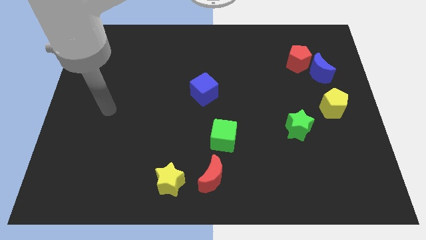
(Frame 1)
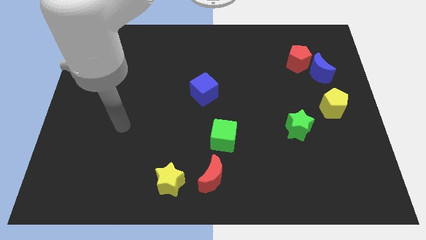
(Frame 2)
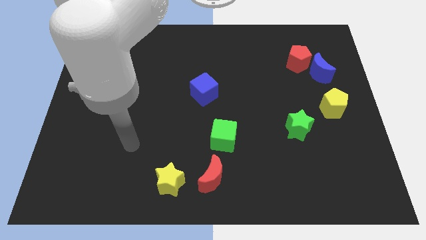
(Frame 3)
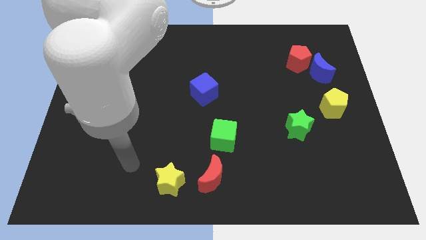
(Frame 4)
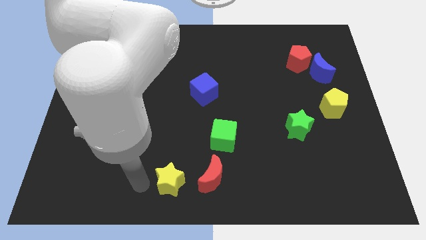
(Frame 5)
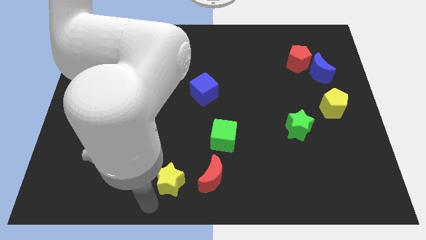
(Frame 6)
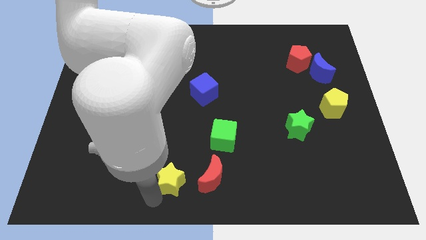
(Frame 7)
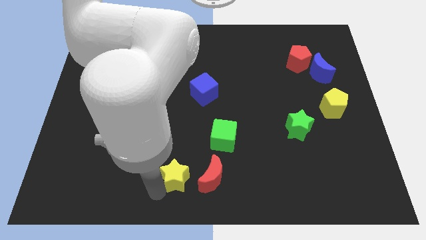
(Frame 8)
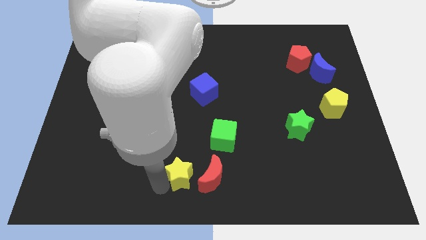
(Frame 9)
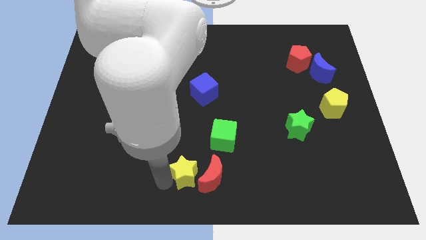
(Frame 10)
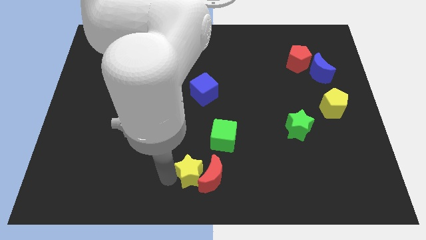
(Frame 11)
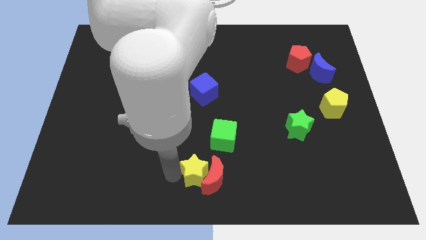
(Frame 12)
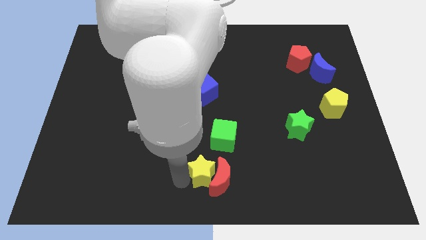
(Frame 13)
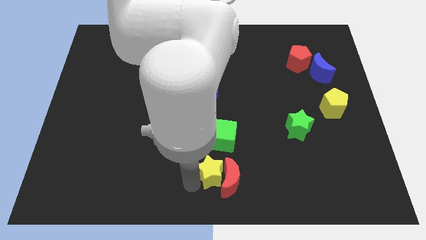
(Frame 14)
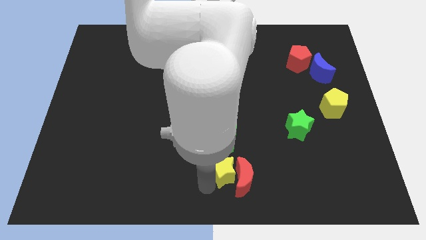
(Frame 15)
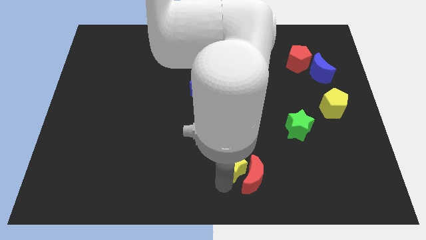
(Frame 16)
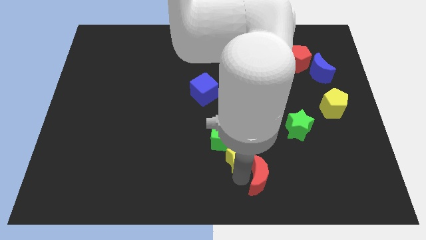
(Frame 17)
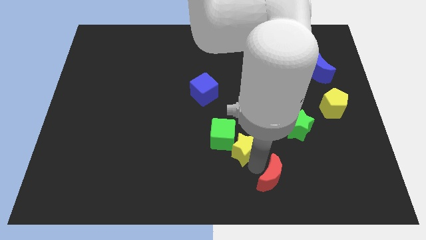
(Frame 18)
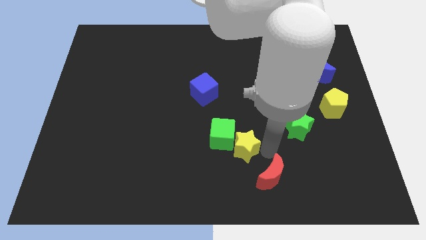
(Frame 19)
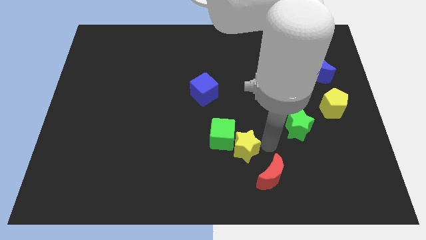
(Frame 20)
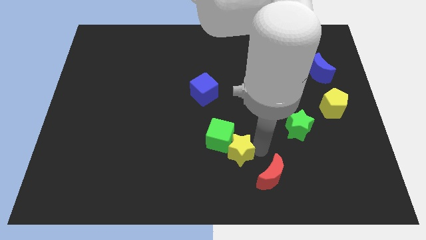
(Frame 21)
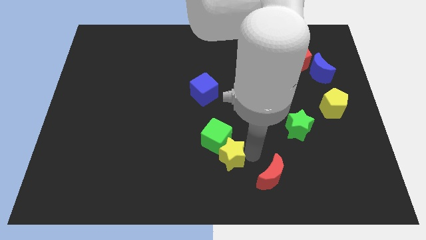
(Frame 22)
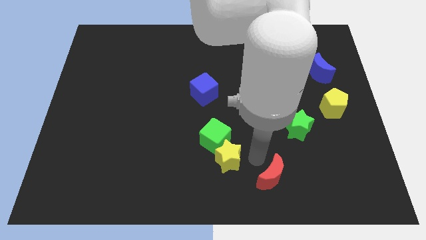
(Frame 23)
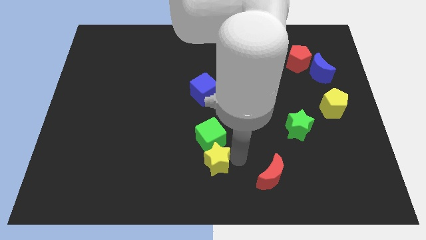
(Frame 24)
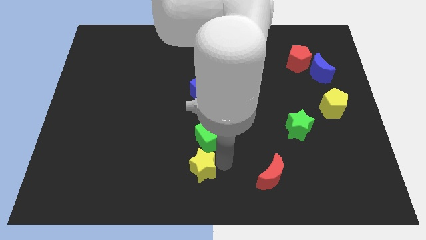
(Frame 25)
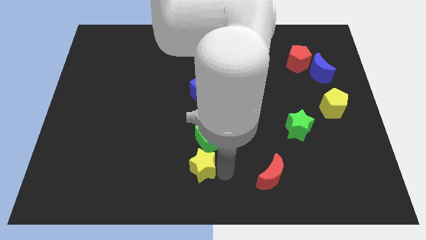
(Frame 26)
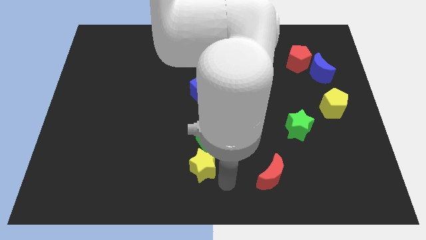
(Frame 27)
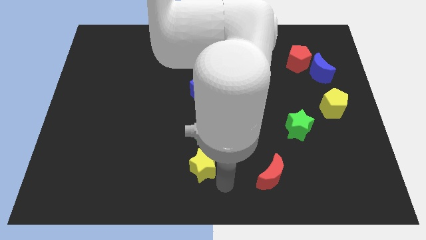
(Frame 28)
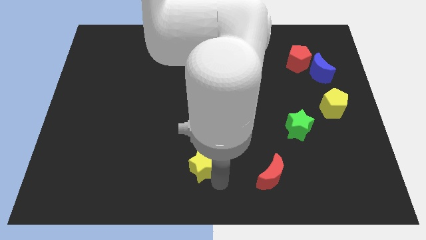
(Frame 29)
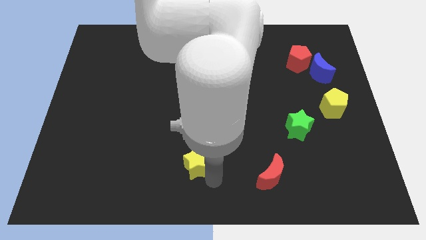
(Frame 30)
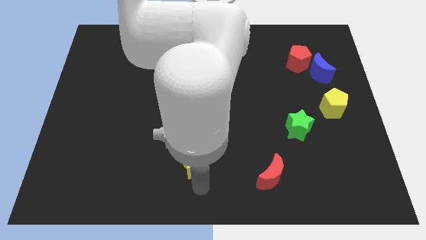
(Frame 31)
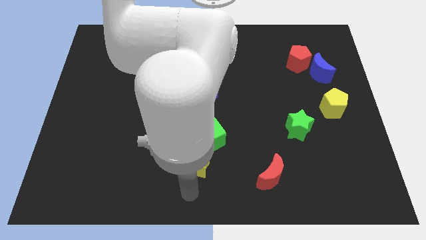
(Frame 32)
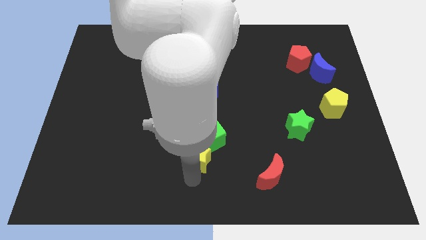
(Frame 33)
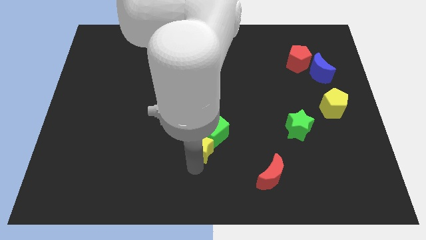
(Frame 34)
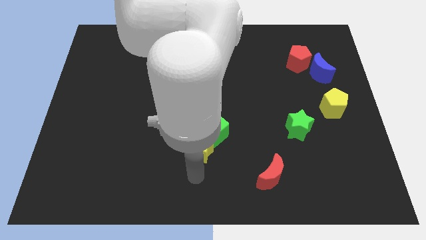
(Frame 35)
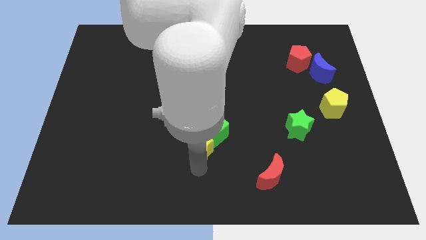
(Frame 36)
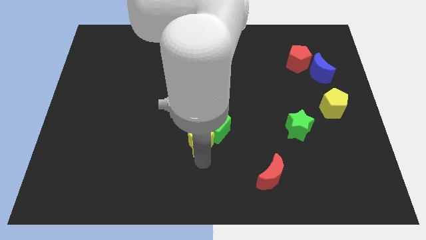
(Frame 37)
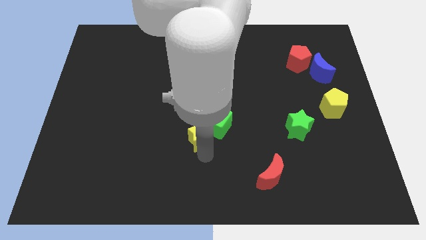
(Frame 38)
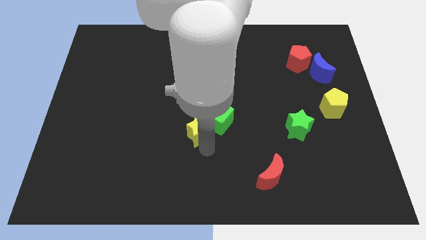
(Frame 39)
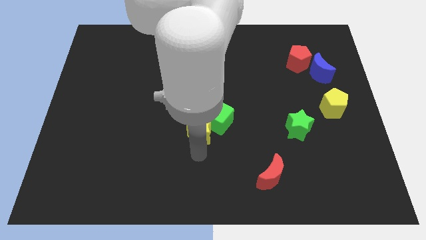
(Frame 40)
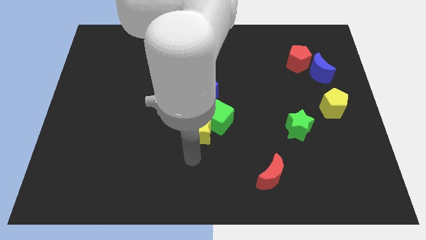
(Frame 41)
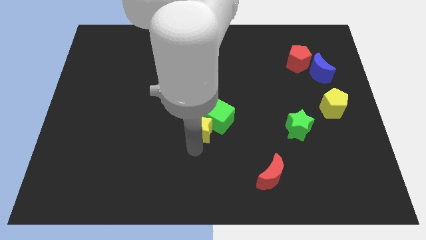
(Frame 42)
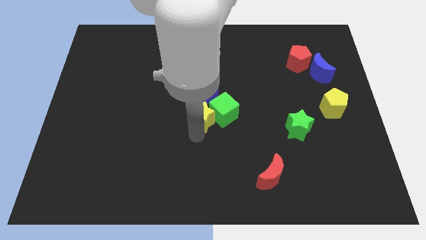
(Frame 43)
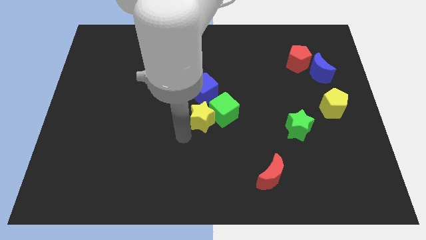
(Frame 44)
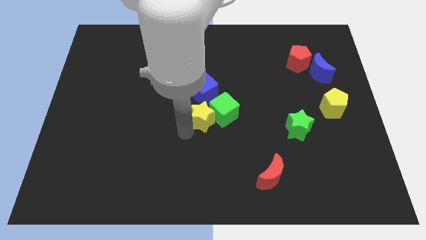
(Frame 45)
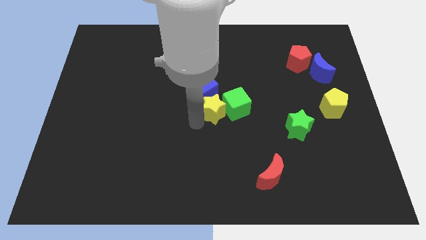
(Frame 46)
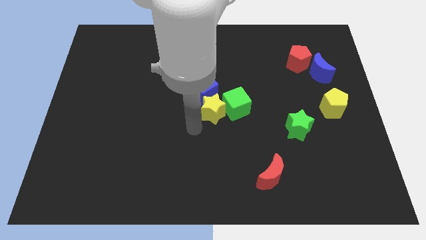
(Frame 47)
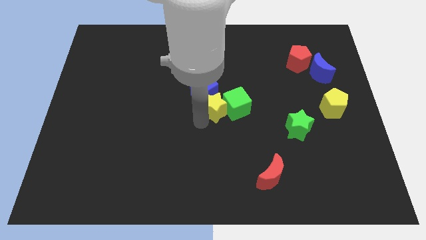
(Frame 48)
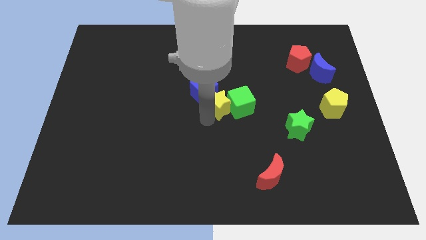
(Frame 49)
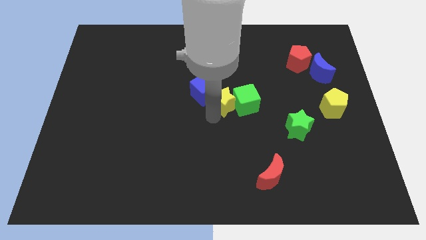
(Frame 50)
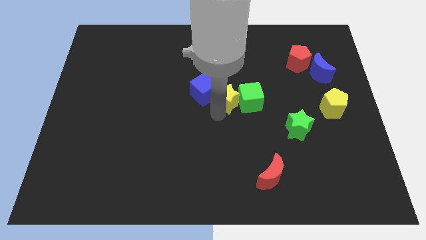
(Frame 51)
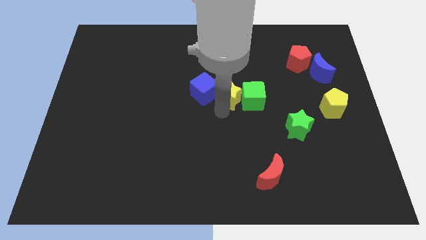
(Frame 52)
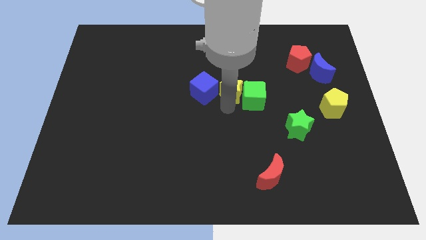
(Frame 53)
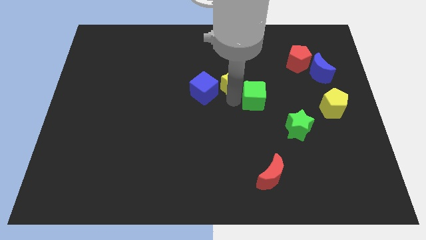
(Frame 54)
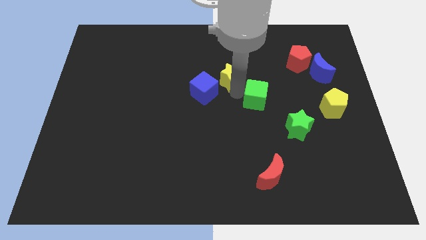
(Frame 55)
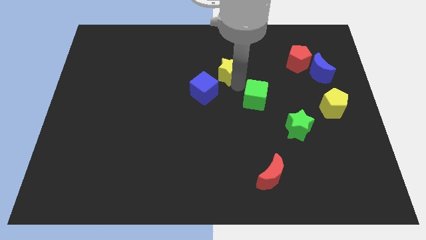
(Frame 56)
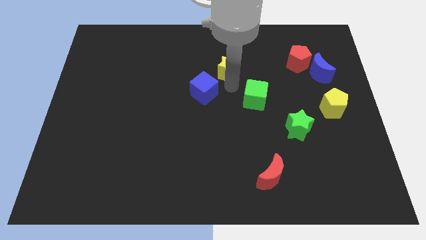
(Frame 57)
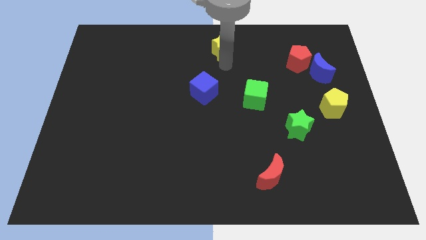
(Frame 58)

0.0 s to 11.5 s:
slide the yellow star to the towards your base

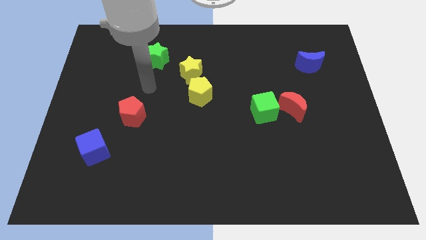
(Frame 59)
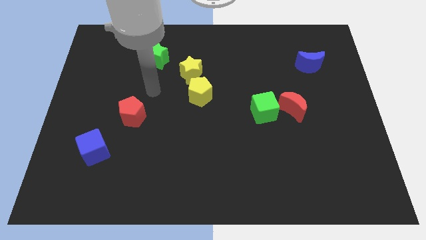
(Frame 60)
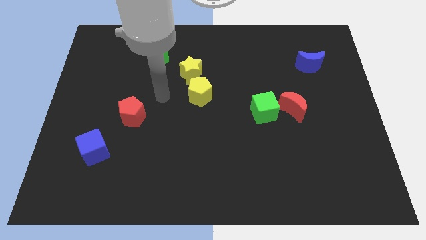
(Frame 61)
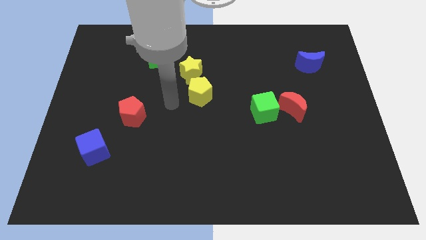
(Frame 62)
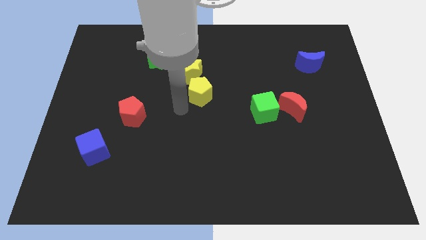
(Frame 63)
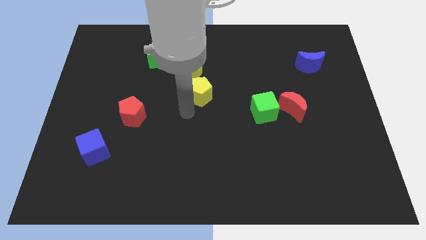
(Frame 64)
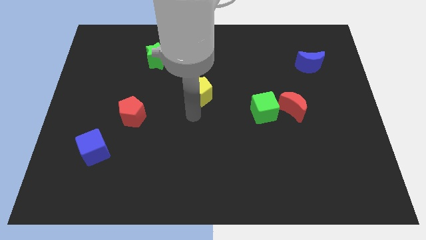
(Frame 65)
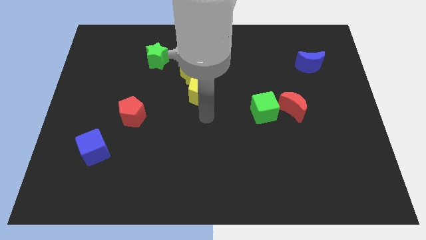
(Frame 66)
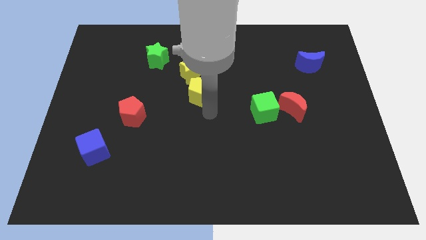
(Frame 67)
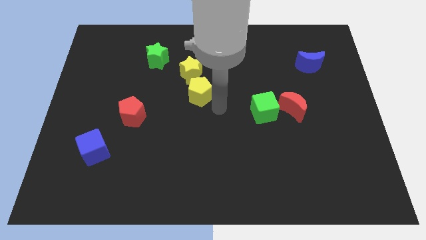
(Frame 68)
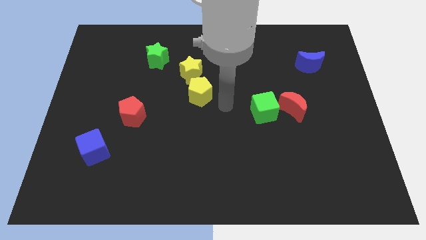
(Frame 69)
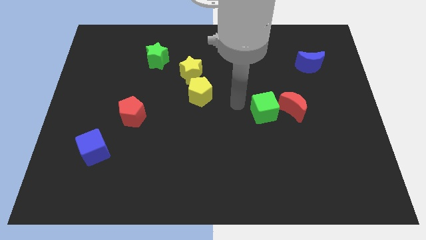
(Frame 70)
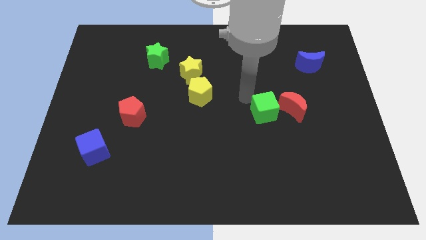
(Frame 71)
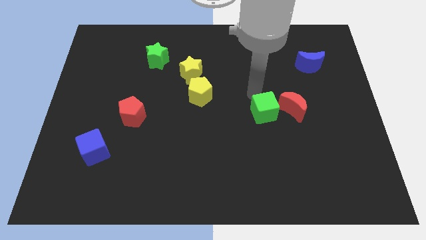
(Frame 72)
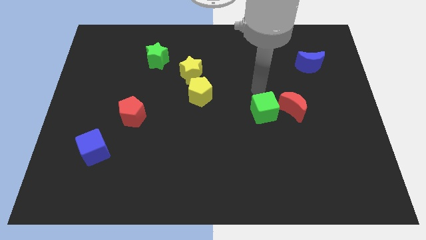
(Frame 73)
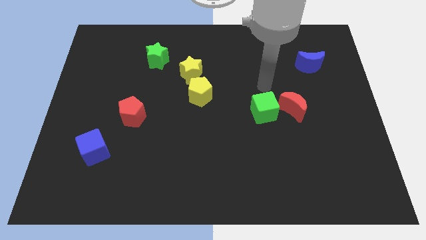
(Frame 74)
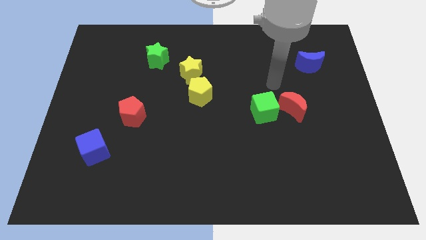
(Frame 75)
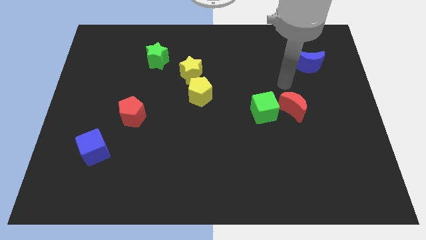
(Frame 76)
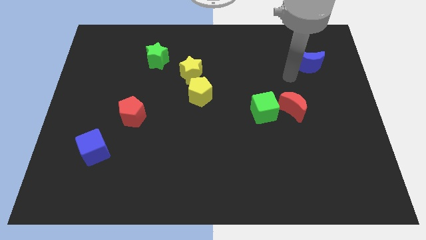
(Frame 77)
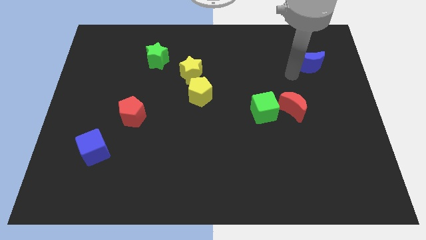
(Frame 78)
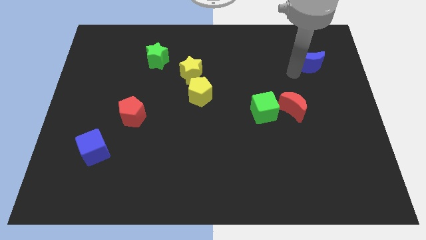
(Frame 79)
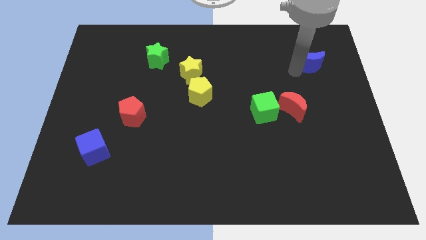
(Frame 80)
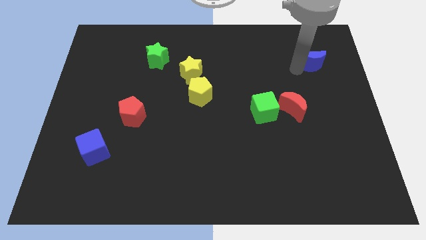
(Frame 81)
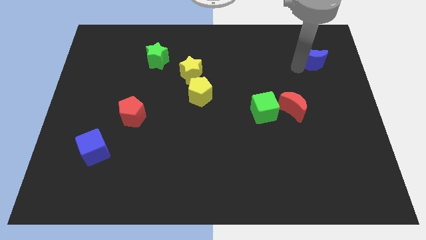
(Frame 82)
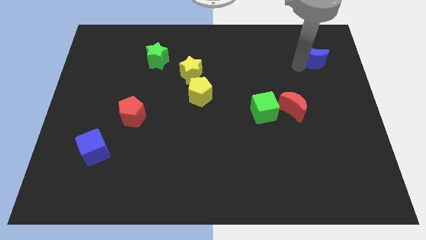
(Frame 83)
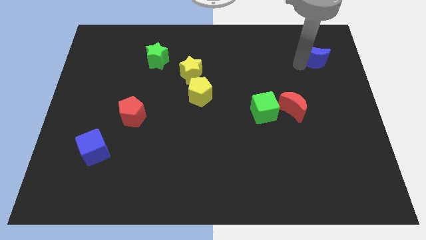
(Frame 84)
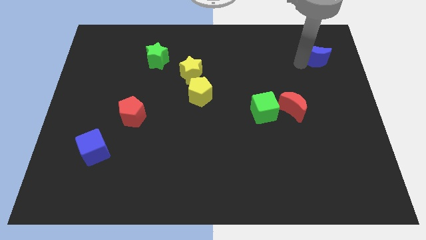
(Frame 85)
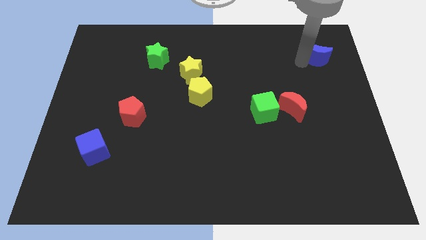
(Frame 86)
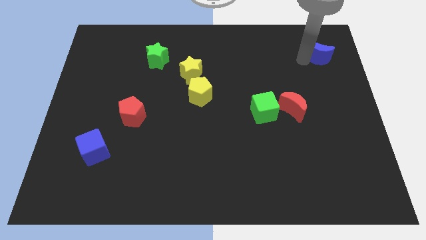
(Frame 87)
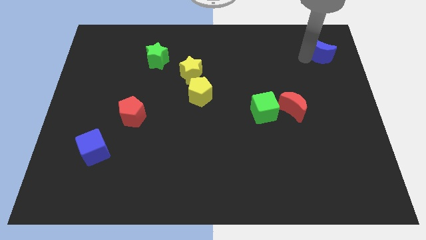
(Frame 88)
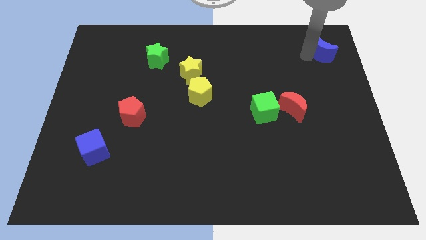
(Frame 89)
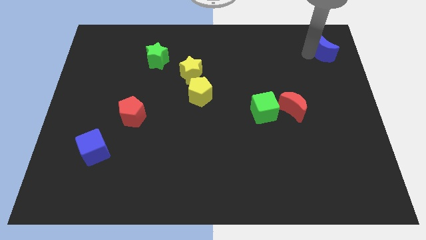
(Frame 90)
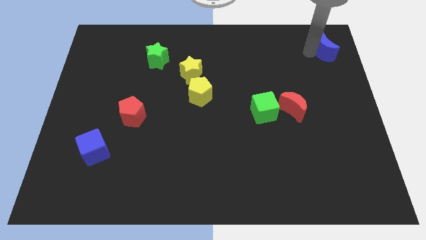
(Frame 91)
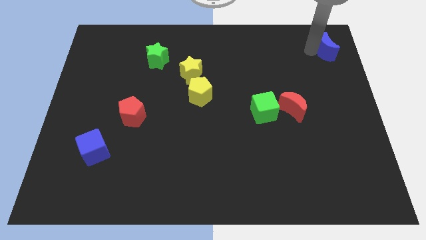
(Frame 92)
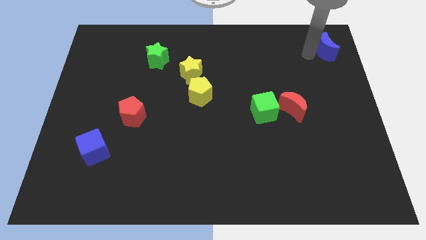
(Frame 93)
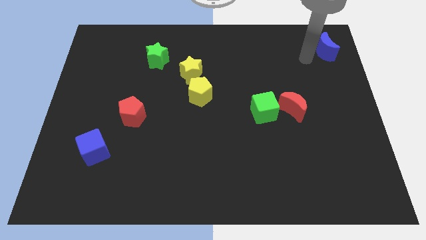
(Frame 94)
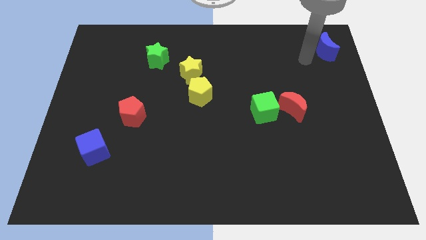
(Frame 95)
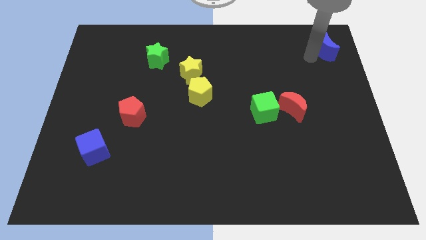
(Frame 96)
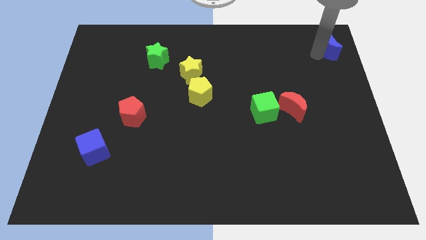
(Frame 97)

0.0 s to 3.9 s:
push the blue moon to the upper right corner
